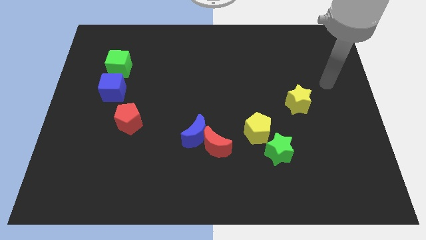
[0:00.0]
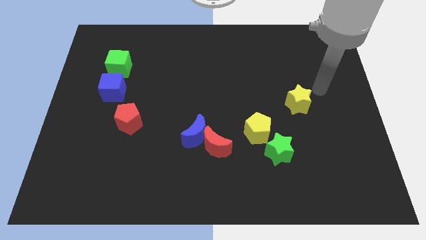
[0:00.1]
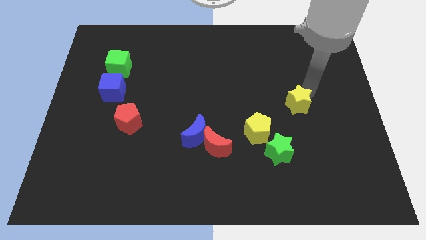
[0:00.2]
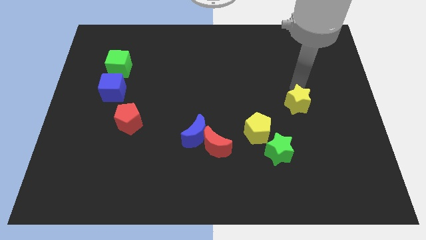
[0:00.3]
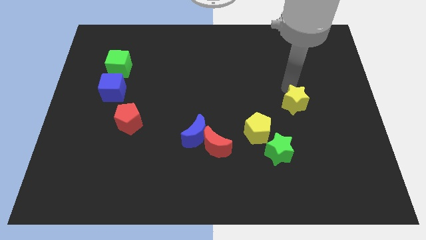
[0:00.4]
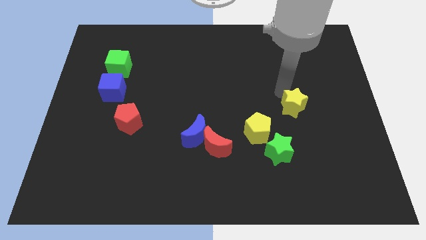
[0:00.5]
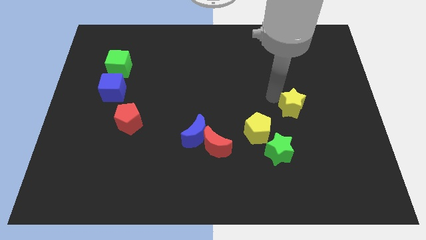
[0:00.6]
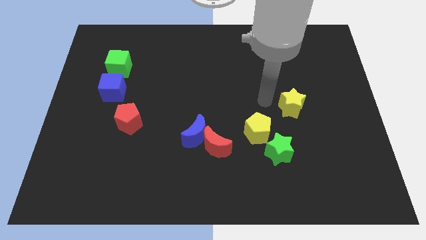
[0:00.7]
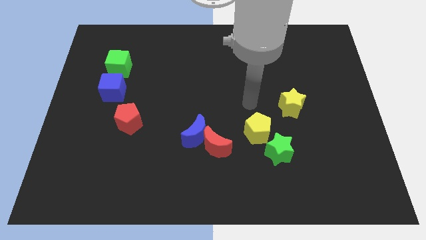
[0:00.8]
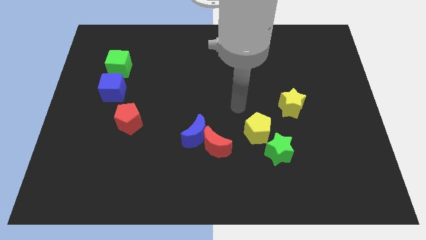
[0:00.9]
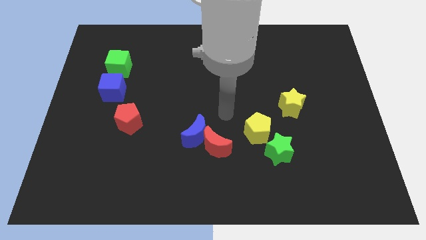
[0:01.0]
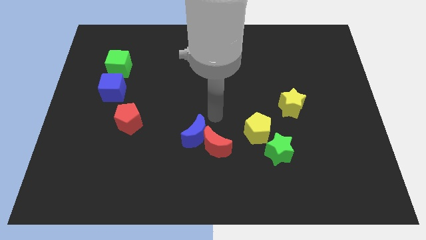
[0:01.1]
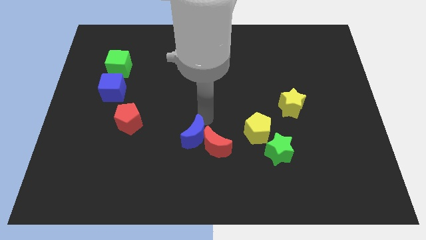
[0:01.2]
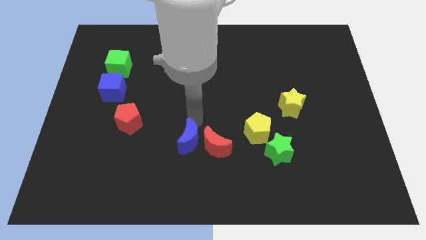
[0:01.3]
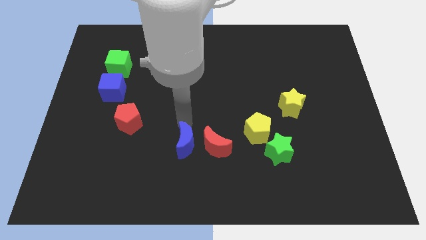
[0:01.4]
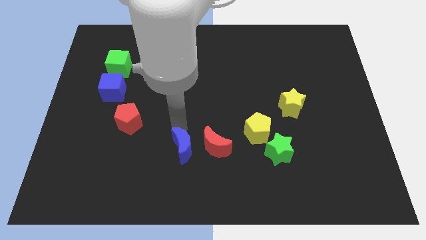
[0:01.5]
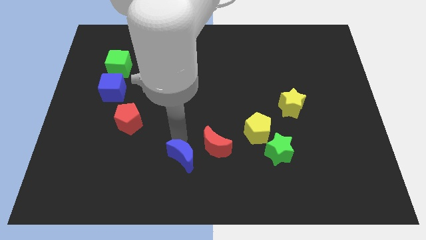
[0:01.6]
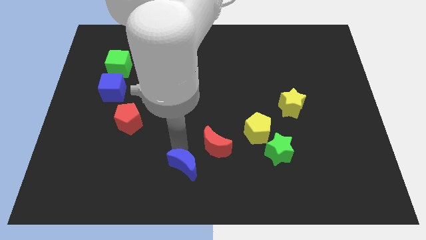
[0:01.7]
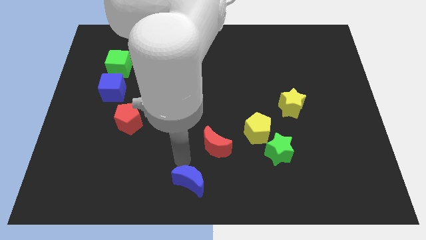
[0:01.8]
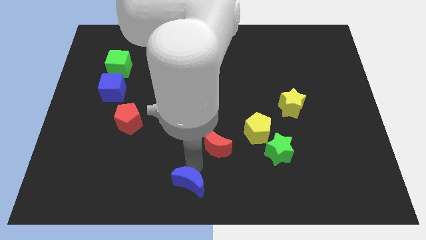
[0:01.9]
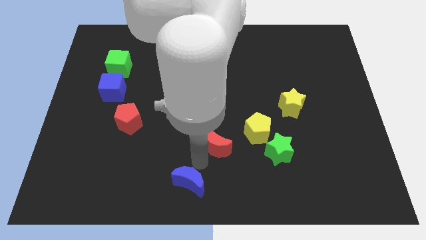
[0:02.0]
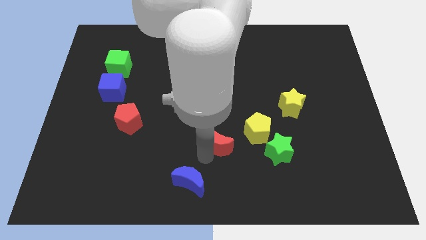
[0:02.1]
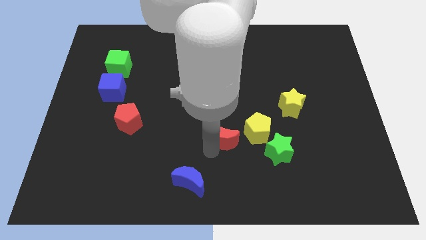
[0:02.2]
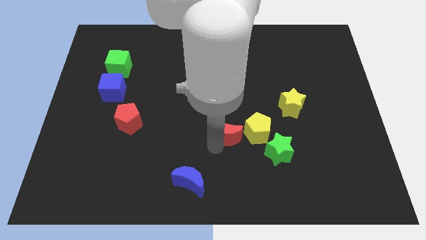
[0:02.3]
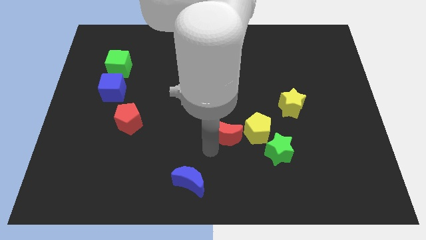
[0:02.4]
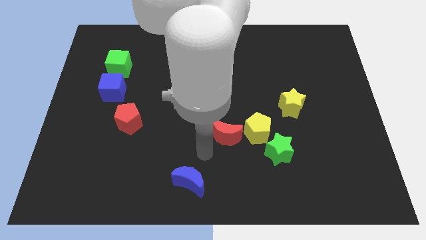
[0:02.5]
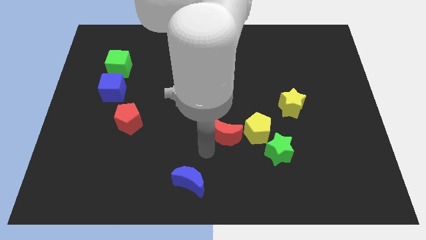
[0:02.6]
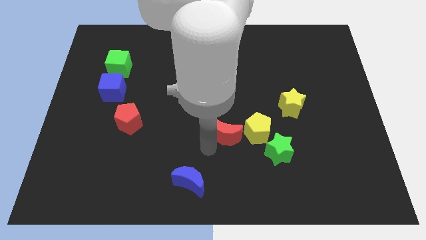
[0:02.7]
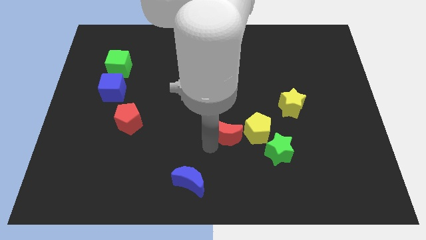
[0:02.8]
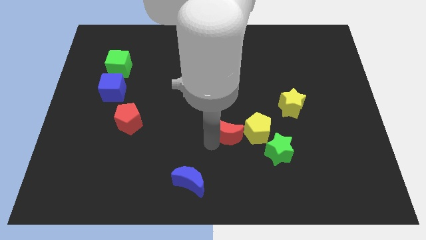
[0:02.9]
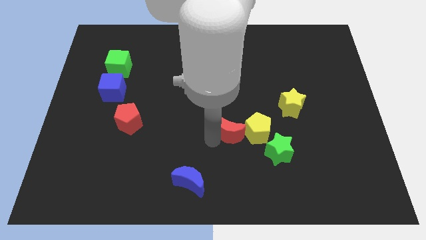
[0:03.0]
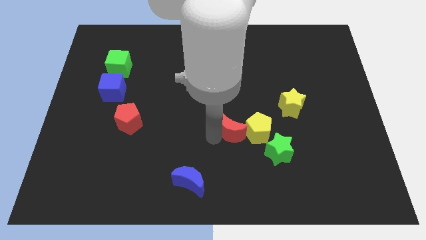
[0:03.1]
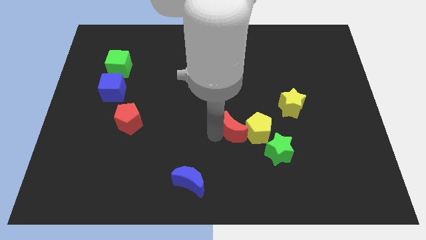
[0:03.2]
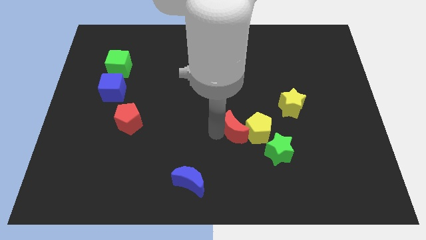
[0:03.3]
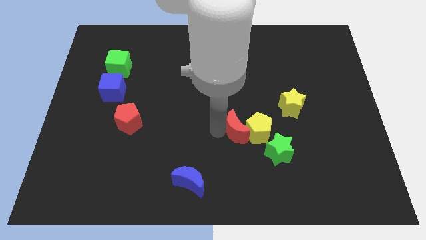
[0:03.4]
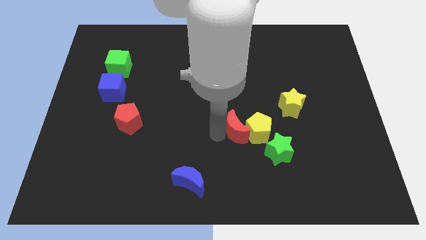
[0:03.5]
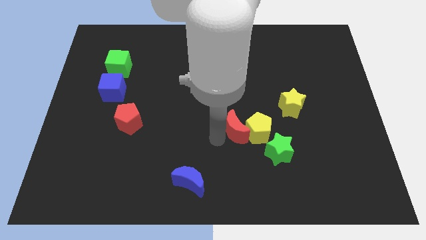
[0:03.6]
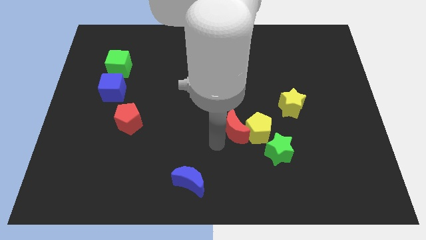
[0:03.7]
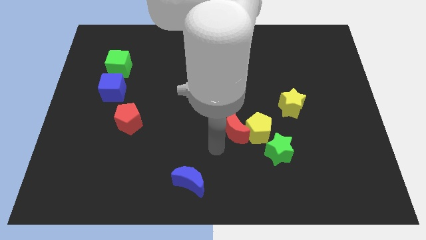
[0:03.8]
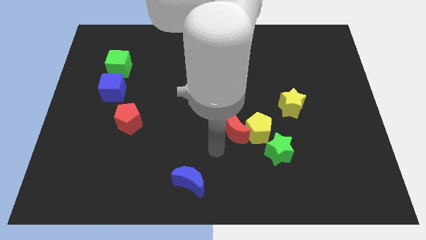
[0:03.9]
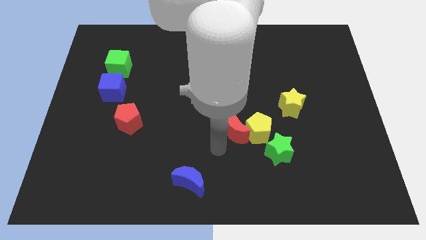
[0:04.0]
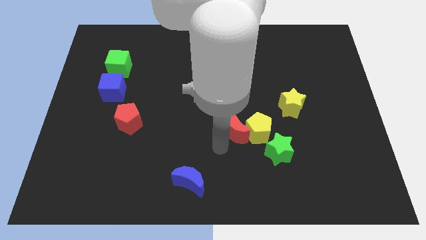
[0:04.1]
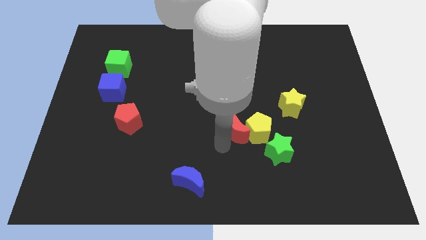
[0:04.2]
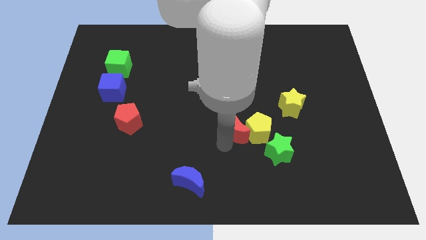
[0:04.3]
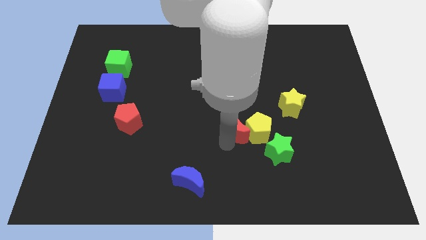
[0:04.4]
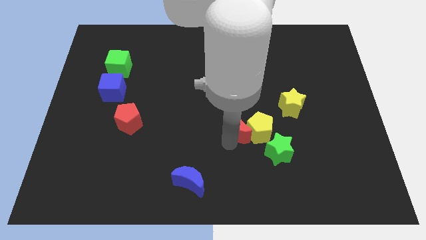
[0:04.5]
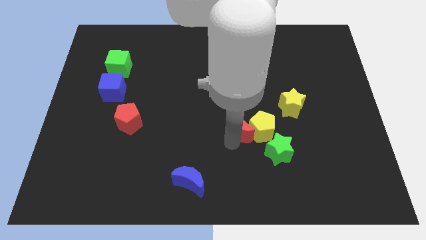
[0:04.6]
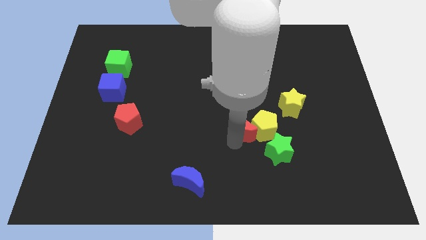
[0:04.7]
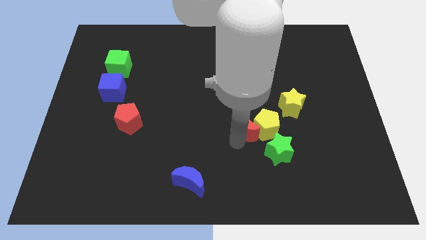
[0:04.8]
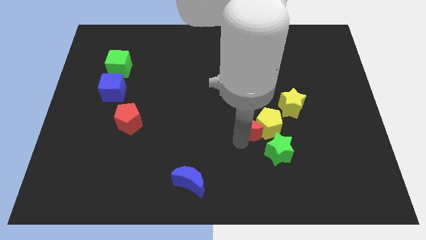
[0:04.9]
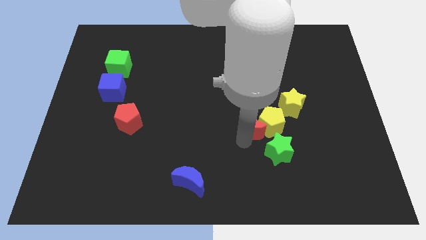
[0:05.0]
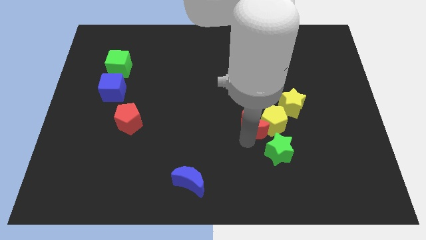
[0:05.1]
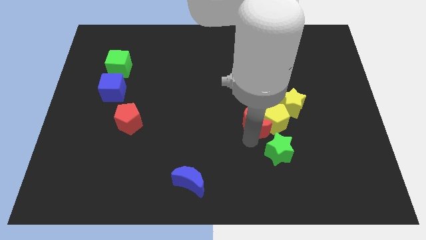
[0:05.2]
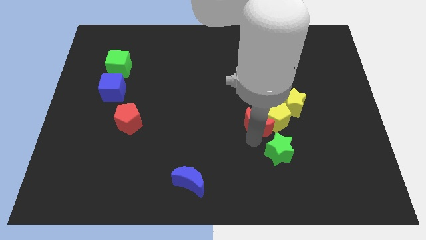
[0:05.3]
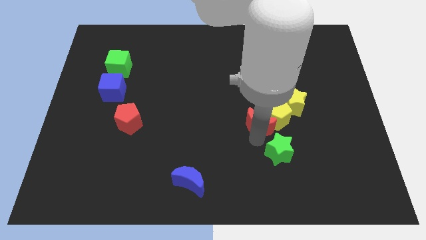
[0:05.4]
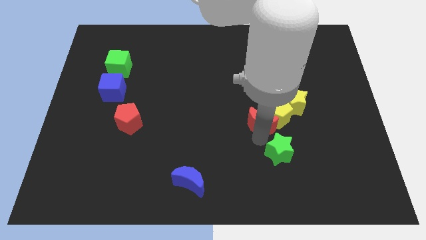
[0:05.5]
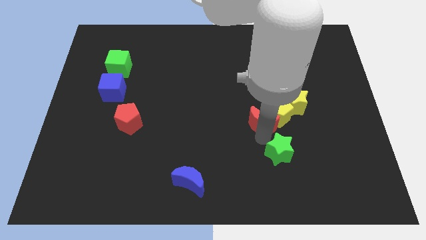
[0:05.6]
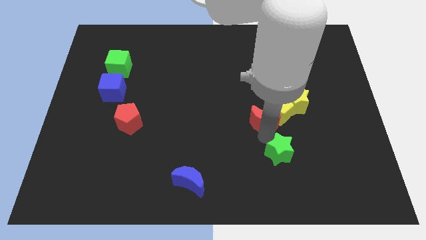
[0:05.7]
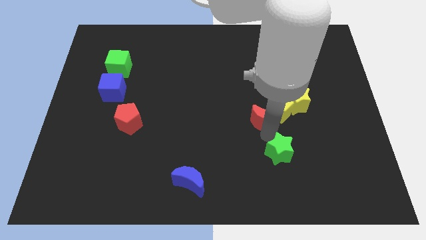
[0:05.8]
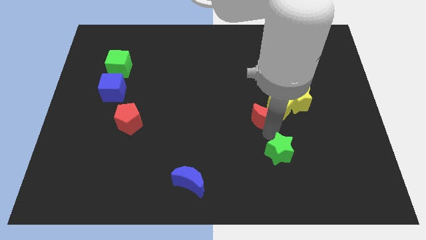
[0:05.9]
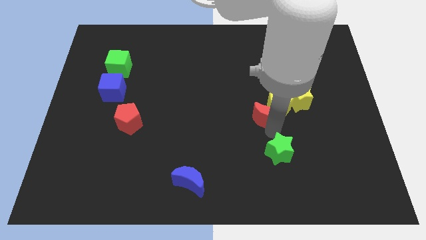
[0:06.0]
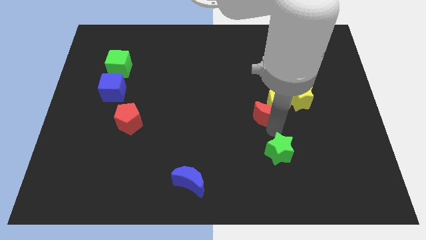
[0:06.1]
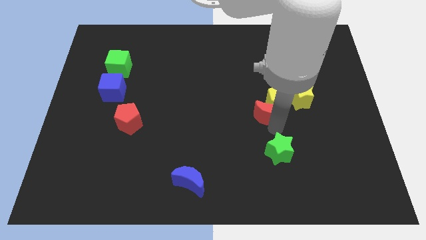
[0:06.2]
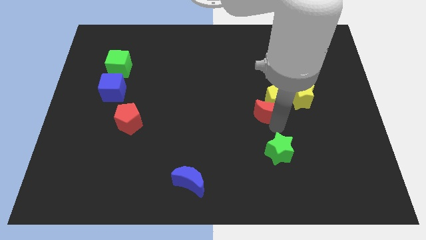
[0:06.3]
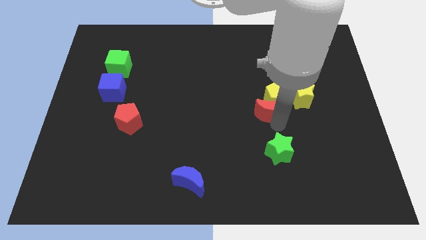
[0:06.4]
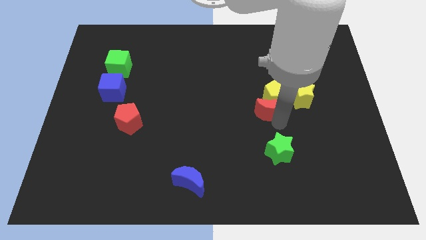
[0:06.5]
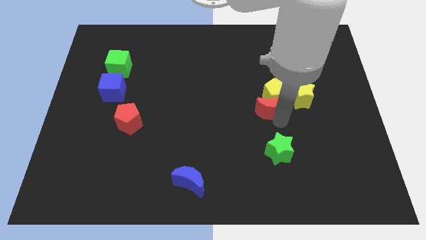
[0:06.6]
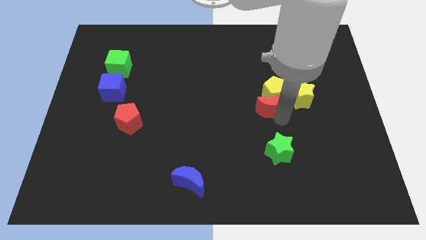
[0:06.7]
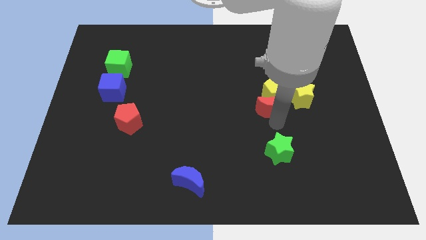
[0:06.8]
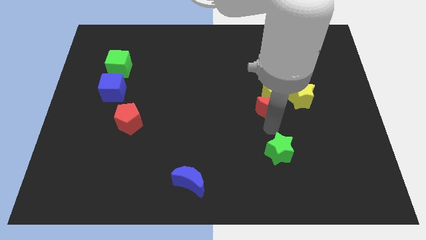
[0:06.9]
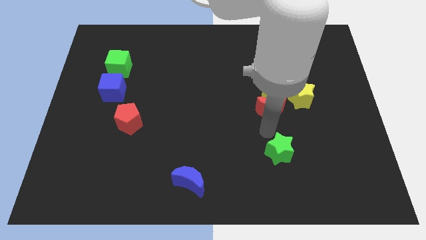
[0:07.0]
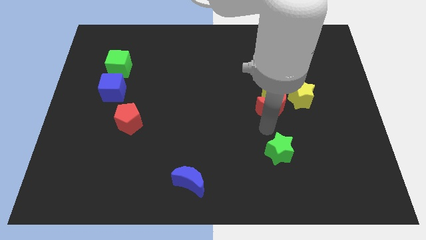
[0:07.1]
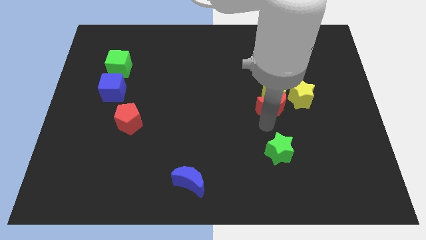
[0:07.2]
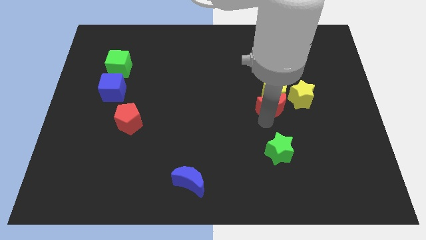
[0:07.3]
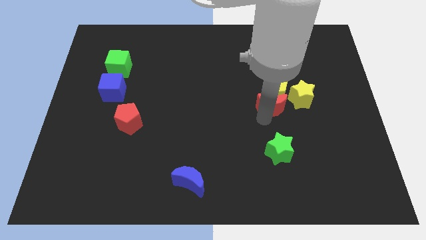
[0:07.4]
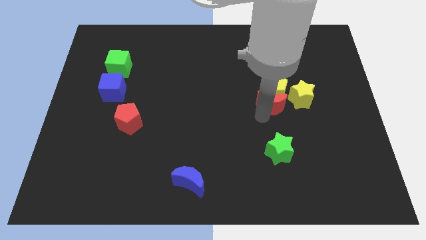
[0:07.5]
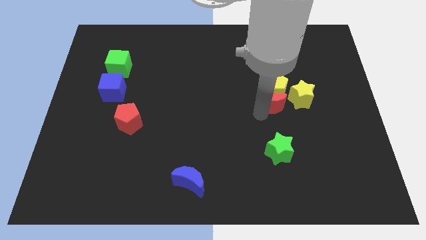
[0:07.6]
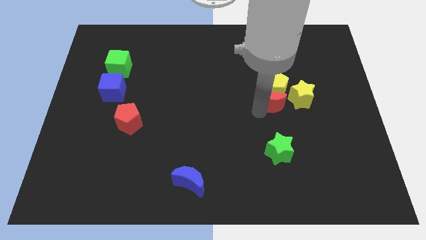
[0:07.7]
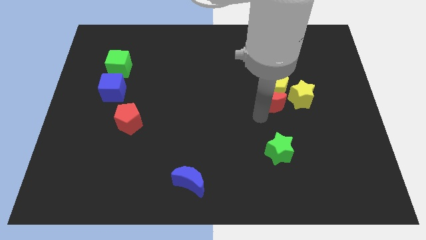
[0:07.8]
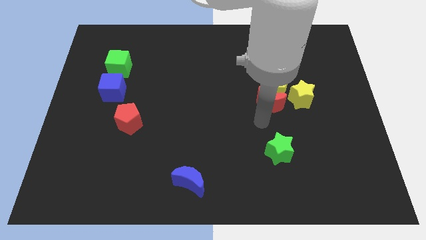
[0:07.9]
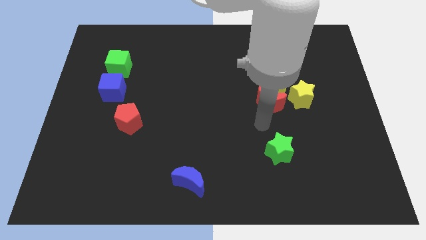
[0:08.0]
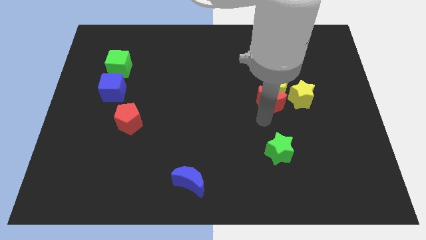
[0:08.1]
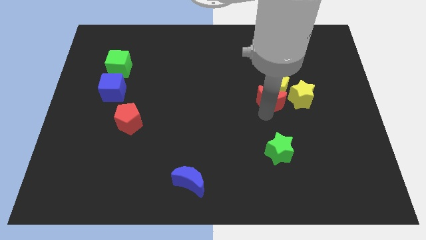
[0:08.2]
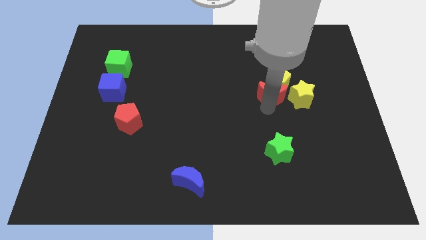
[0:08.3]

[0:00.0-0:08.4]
push the red moon to the top left of the yellow star
